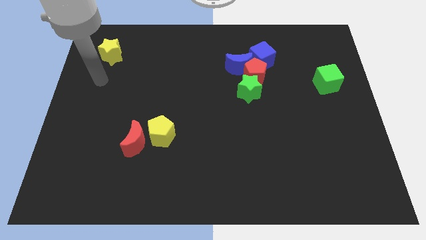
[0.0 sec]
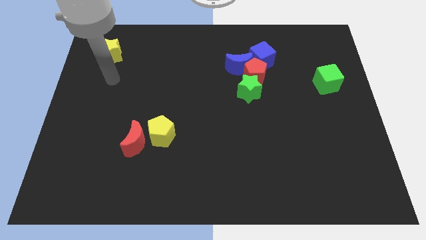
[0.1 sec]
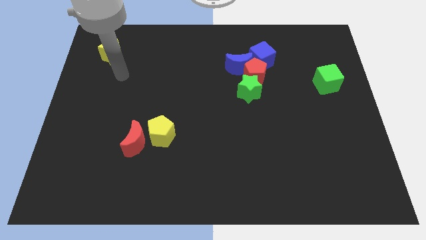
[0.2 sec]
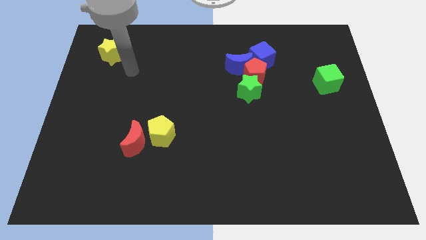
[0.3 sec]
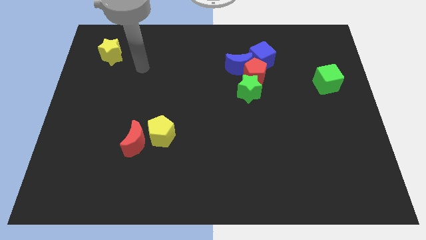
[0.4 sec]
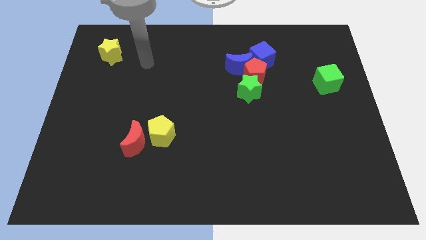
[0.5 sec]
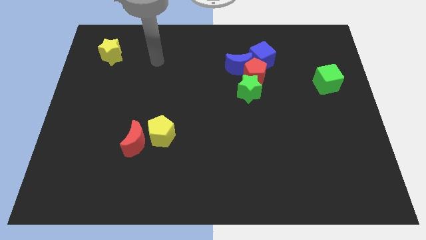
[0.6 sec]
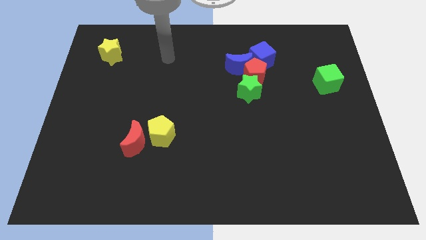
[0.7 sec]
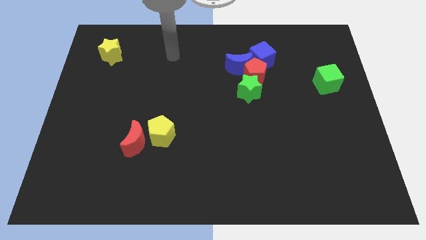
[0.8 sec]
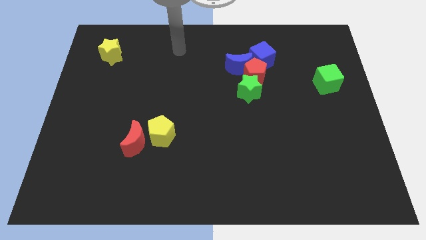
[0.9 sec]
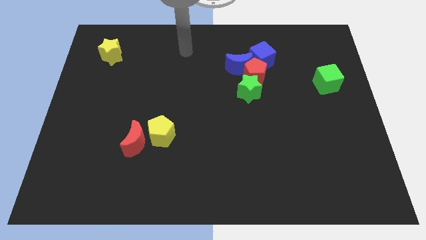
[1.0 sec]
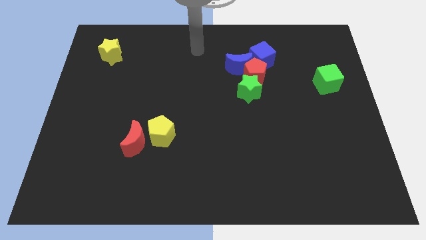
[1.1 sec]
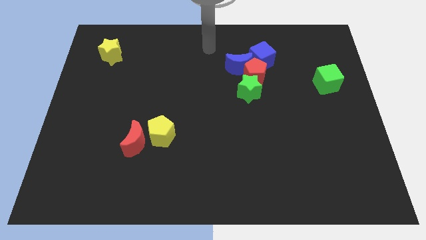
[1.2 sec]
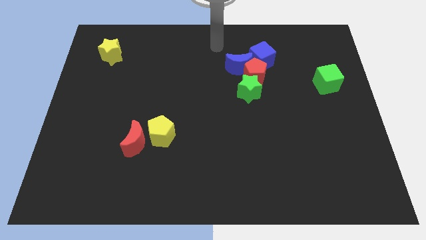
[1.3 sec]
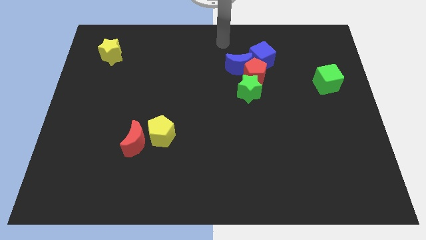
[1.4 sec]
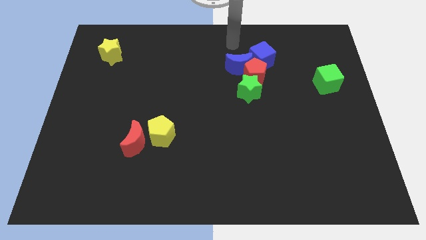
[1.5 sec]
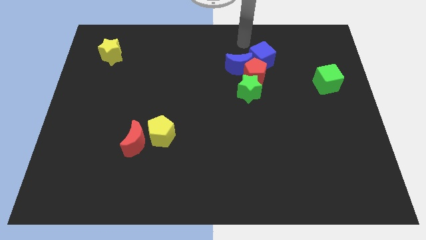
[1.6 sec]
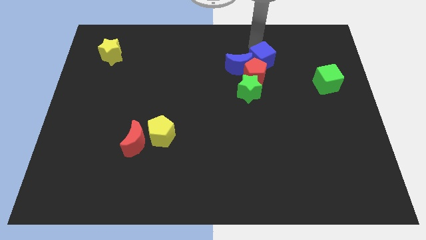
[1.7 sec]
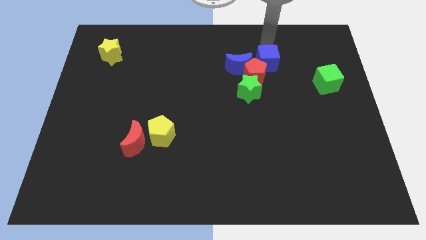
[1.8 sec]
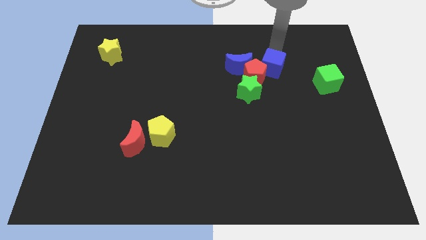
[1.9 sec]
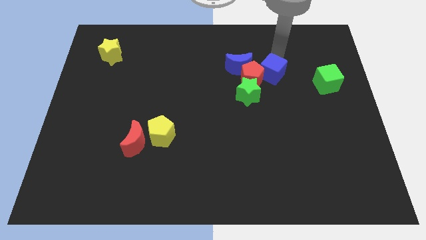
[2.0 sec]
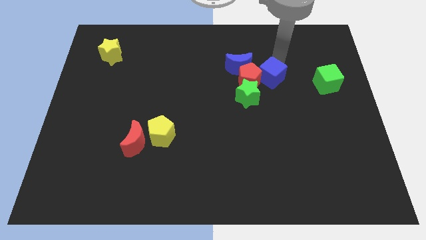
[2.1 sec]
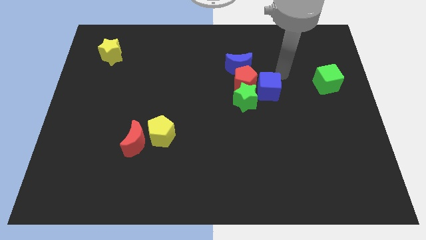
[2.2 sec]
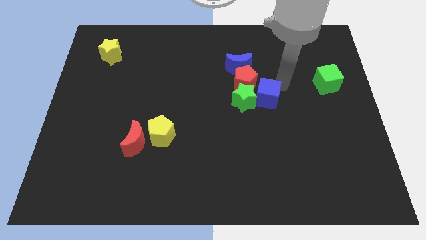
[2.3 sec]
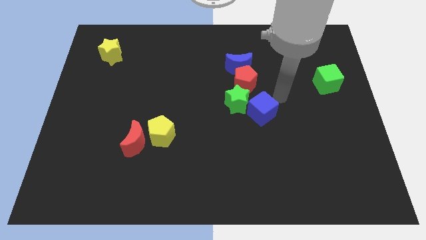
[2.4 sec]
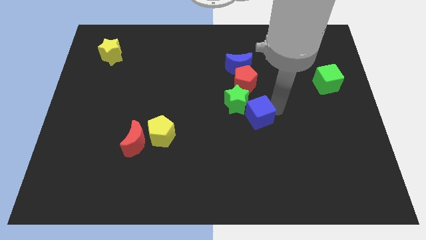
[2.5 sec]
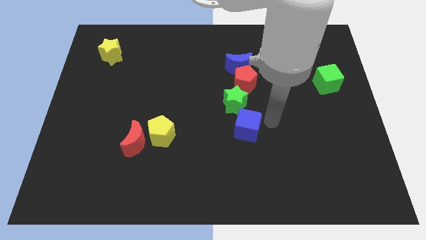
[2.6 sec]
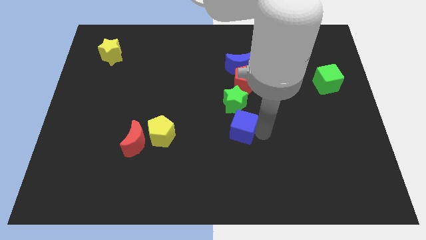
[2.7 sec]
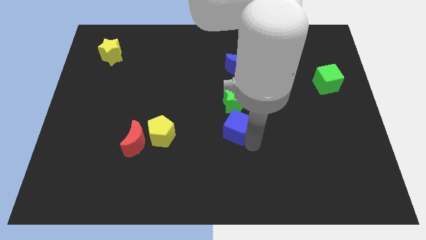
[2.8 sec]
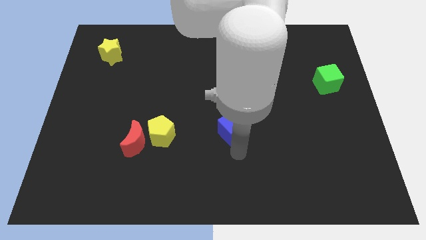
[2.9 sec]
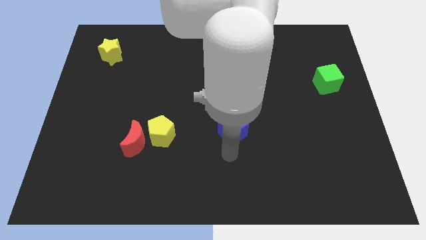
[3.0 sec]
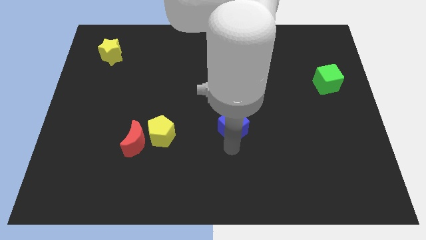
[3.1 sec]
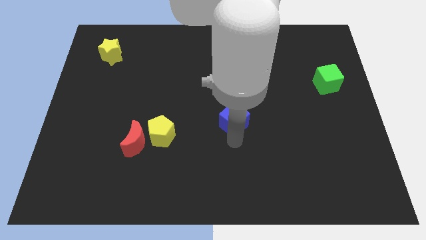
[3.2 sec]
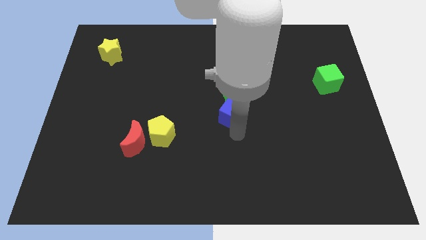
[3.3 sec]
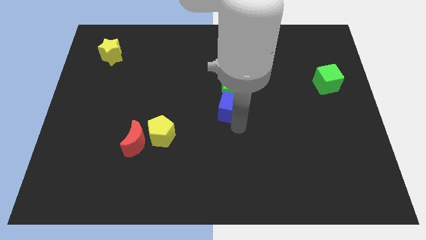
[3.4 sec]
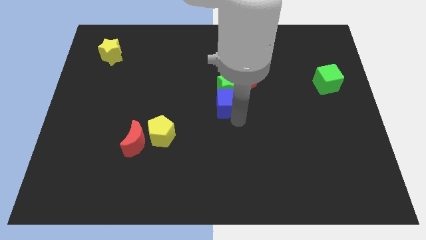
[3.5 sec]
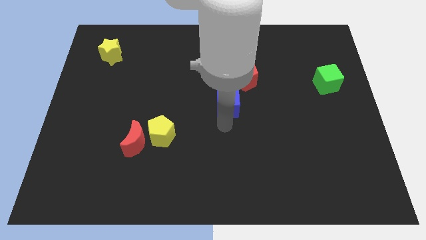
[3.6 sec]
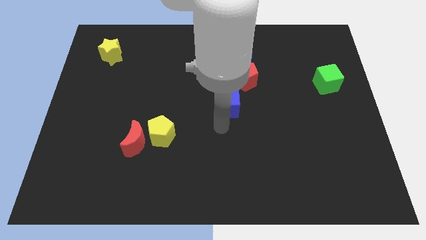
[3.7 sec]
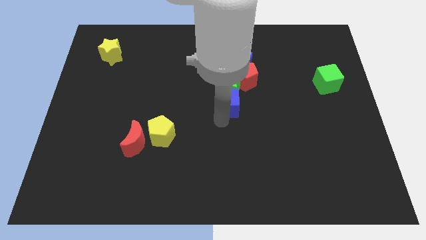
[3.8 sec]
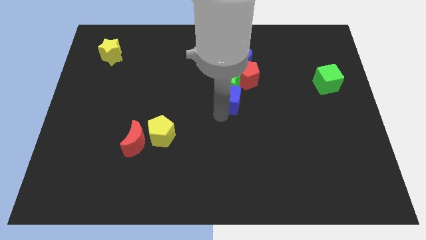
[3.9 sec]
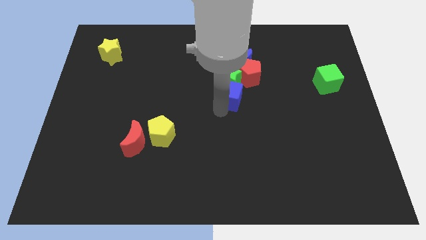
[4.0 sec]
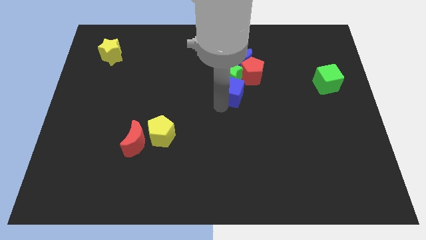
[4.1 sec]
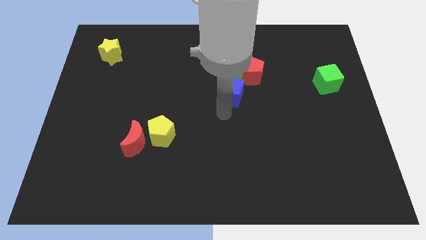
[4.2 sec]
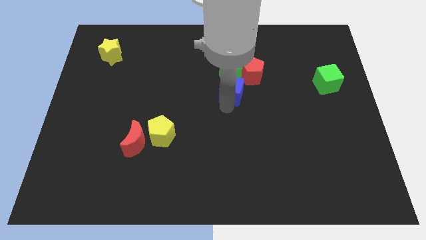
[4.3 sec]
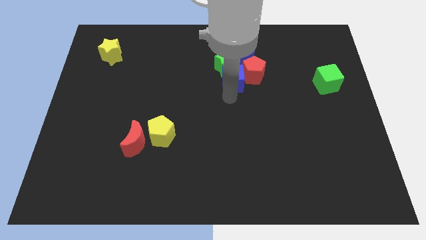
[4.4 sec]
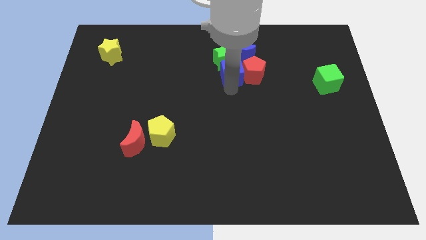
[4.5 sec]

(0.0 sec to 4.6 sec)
slide the blue cube to the left a little

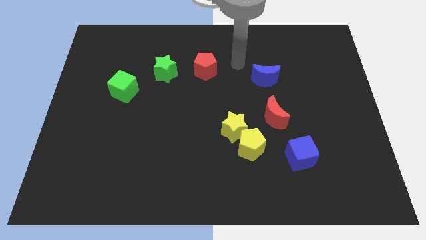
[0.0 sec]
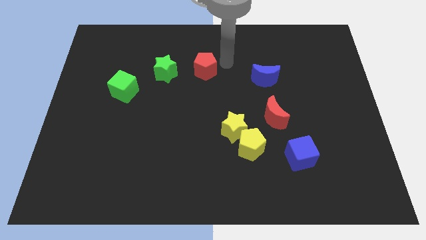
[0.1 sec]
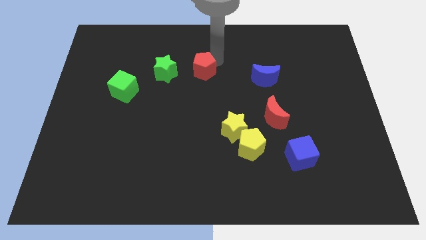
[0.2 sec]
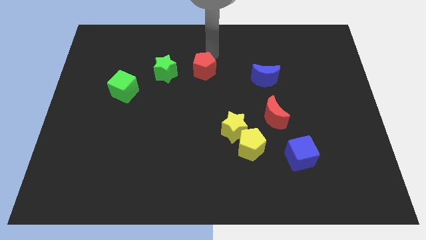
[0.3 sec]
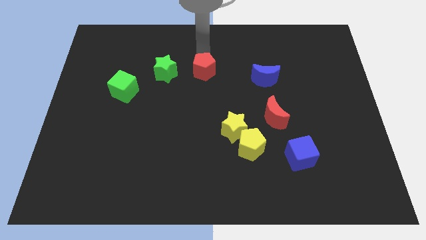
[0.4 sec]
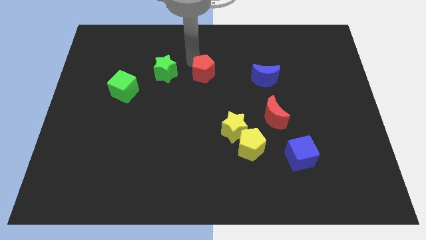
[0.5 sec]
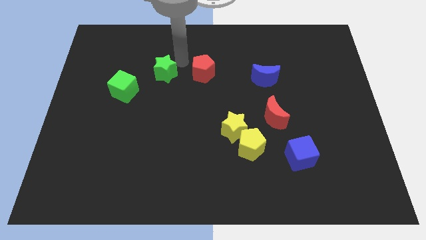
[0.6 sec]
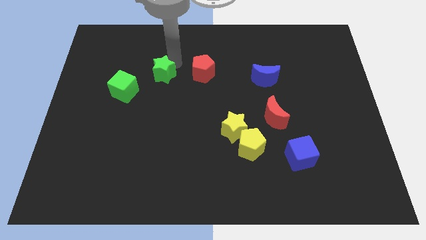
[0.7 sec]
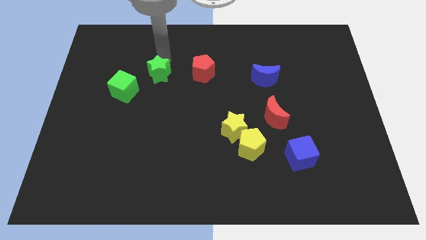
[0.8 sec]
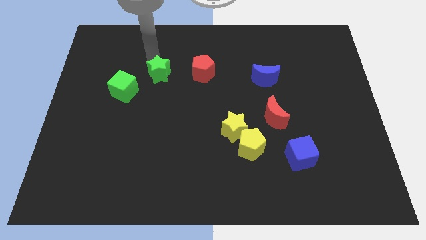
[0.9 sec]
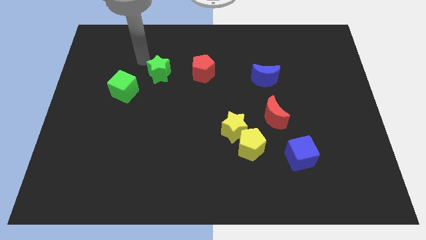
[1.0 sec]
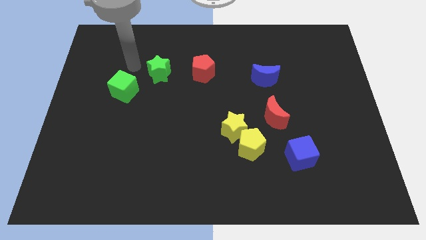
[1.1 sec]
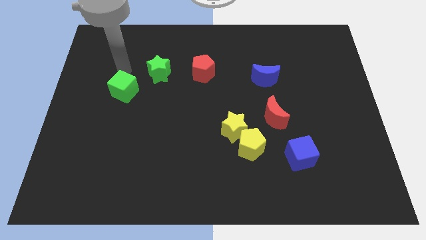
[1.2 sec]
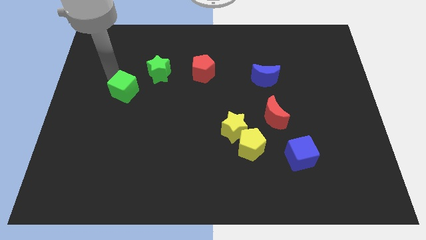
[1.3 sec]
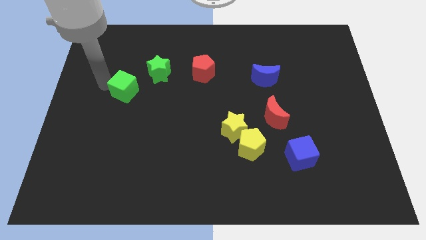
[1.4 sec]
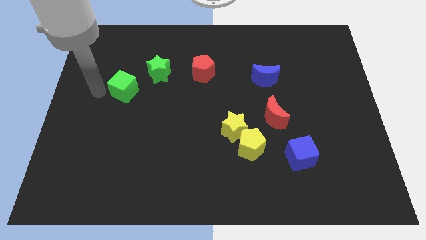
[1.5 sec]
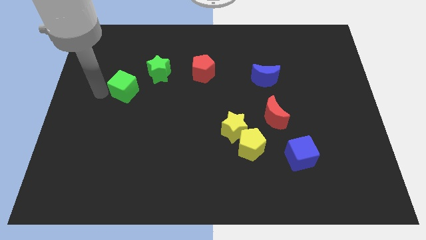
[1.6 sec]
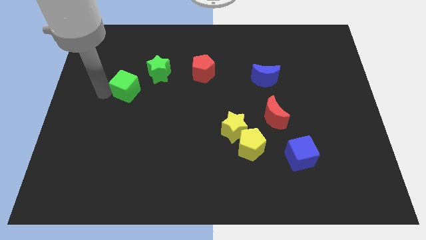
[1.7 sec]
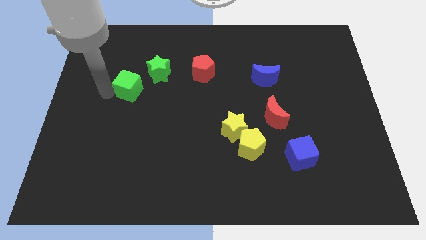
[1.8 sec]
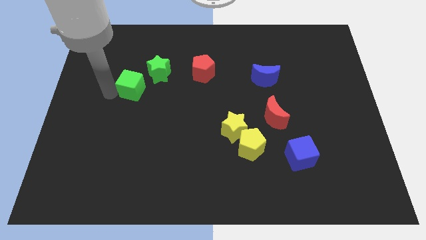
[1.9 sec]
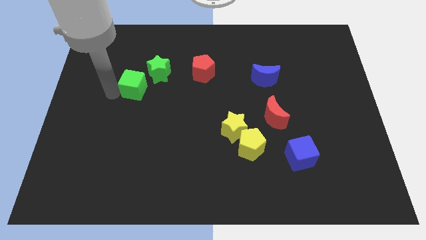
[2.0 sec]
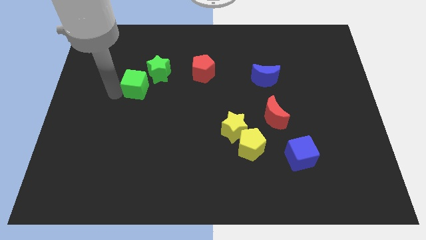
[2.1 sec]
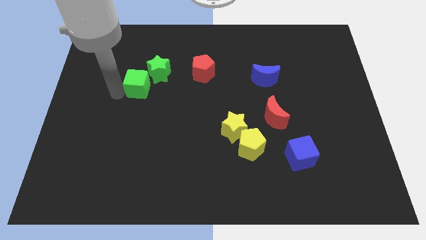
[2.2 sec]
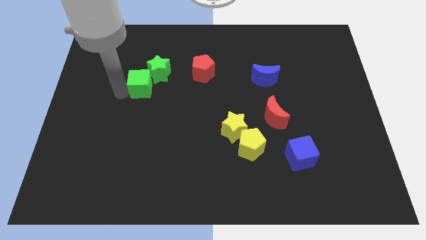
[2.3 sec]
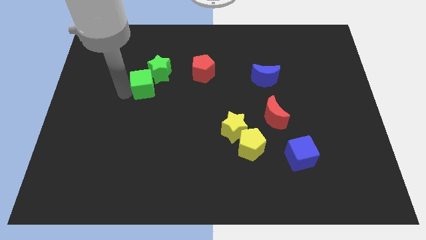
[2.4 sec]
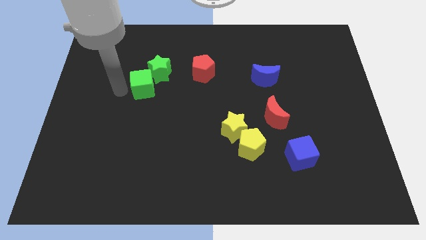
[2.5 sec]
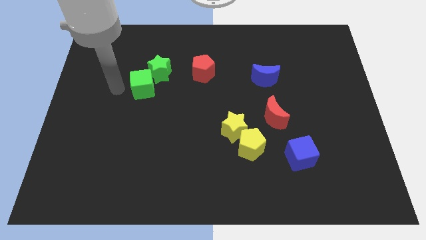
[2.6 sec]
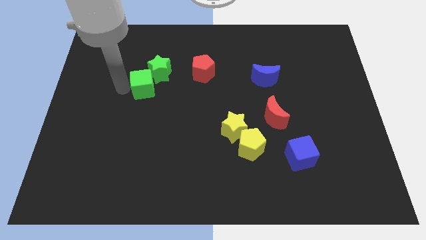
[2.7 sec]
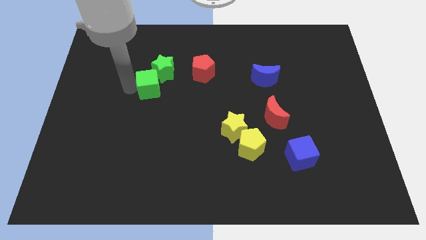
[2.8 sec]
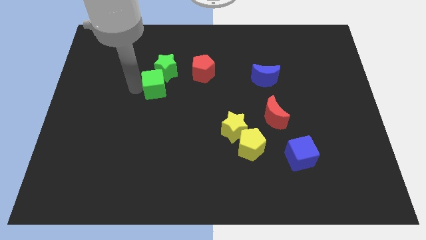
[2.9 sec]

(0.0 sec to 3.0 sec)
slide the green cube a bit to the right
